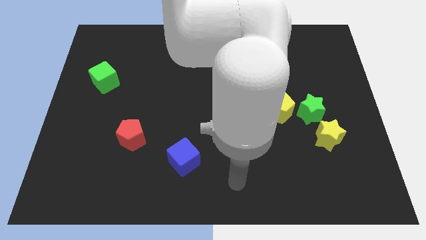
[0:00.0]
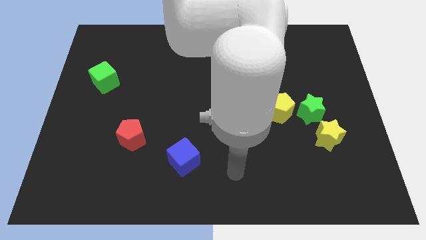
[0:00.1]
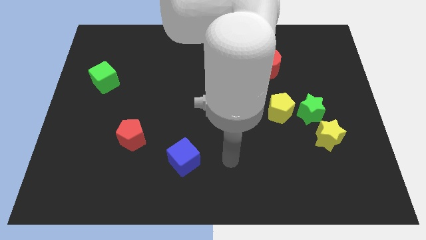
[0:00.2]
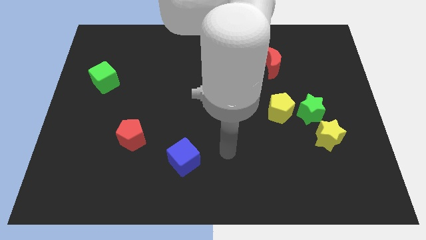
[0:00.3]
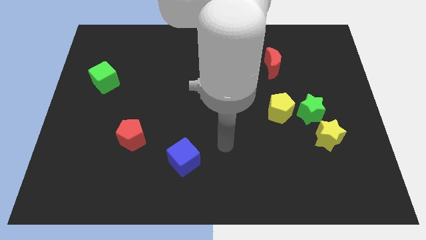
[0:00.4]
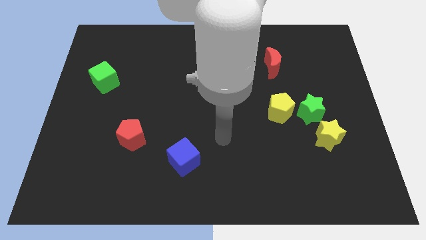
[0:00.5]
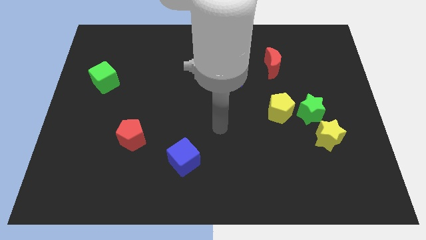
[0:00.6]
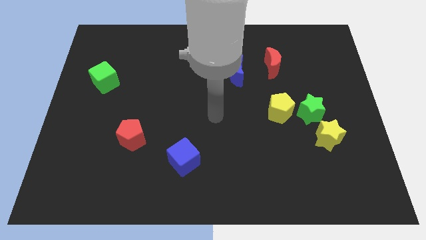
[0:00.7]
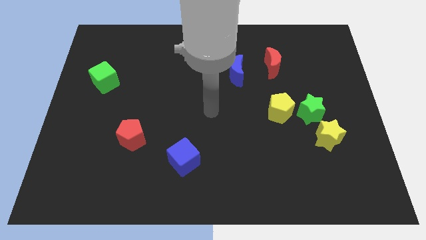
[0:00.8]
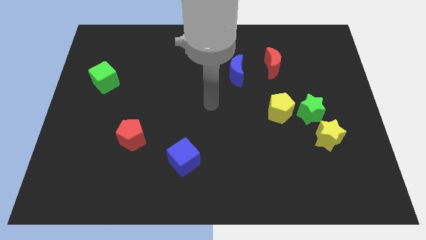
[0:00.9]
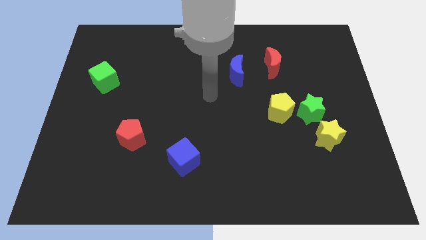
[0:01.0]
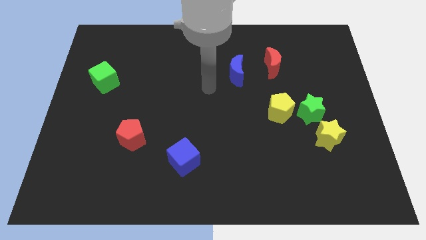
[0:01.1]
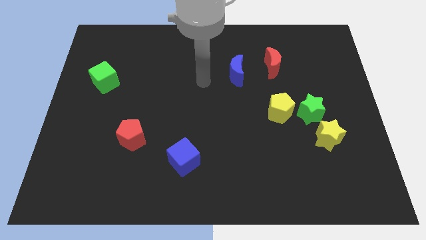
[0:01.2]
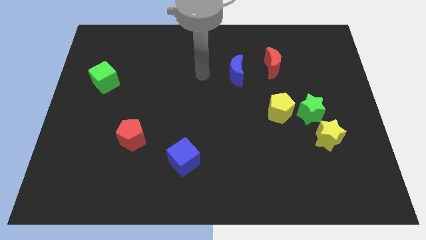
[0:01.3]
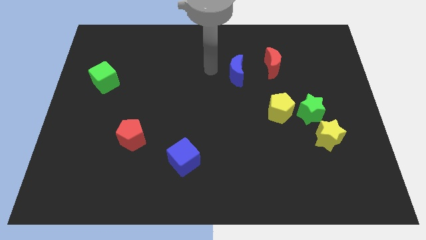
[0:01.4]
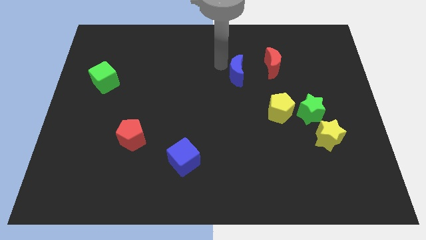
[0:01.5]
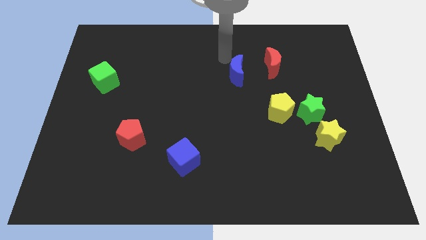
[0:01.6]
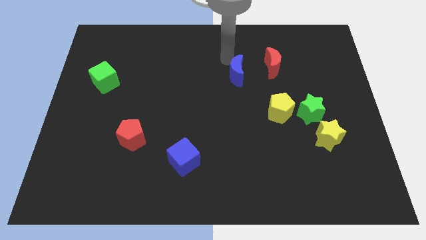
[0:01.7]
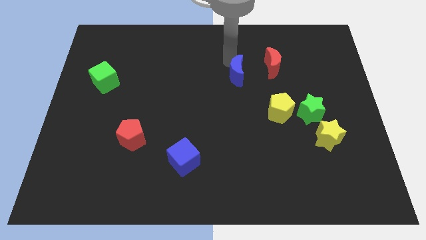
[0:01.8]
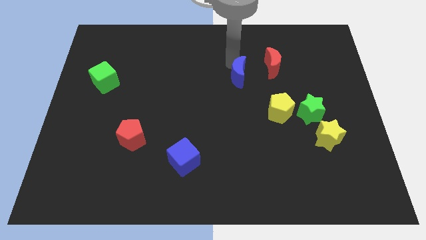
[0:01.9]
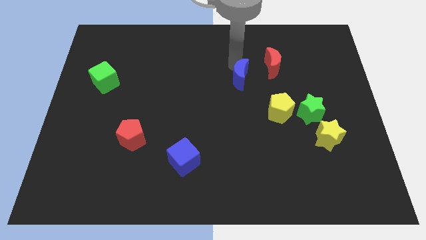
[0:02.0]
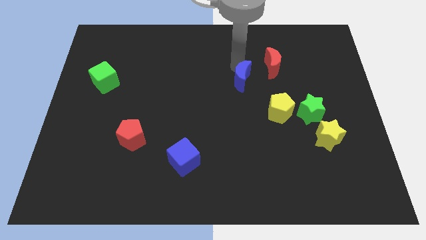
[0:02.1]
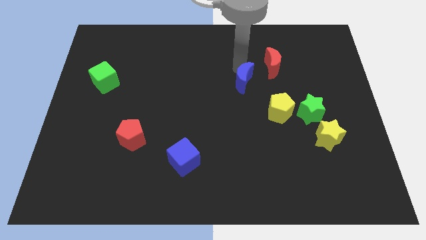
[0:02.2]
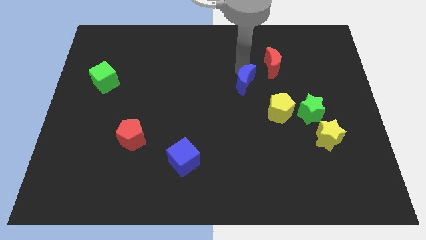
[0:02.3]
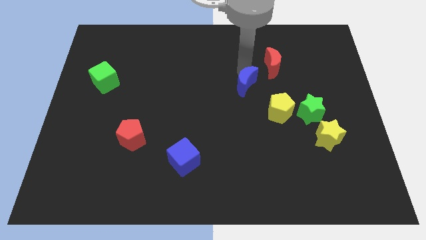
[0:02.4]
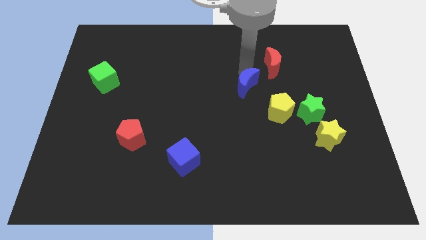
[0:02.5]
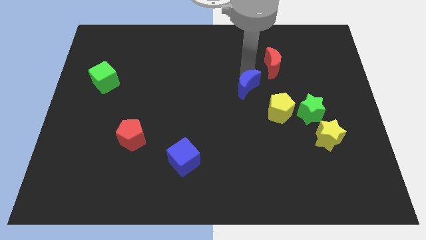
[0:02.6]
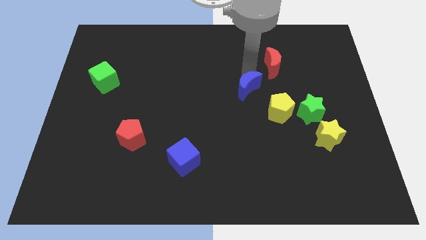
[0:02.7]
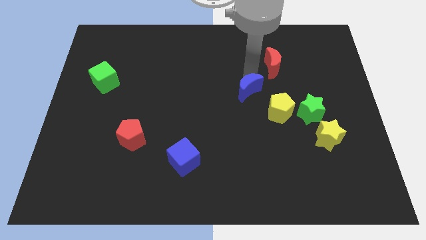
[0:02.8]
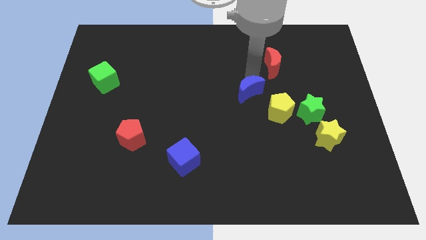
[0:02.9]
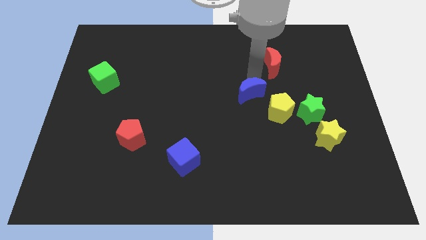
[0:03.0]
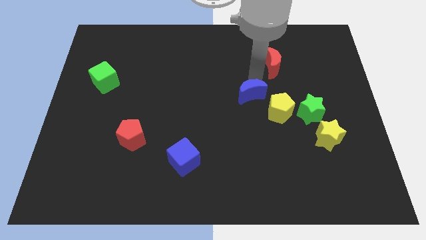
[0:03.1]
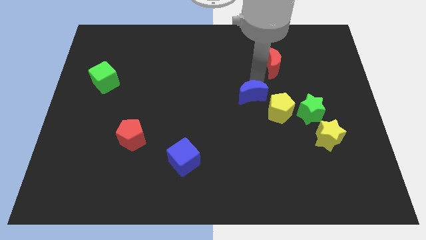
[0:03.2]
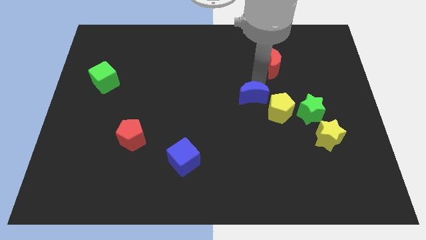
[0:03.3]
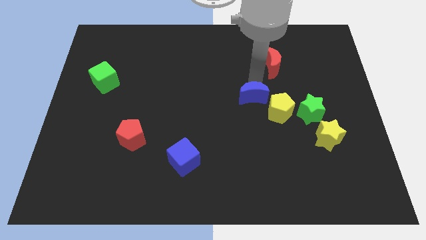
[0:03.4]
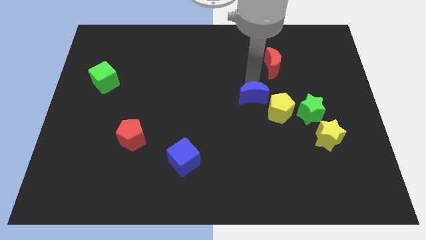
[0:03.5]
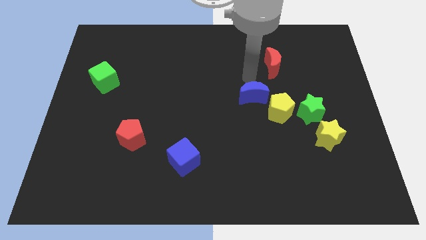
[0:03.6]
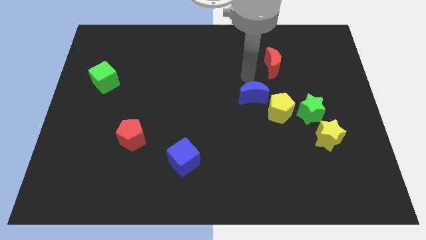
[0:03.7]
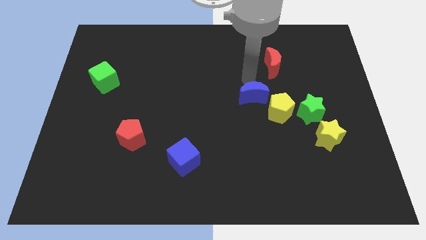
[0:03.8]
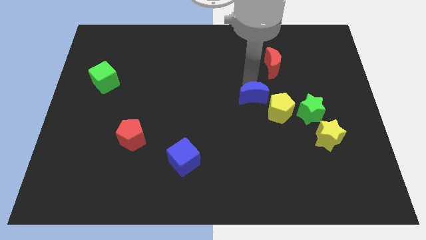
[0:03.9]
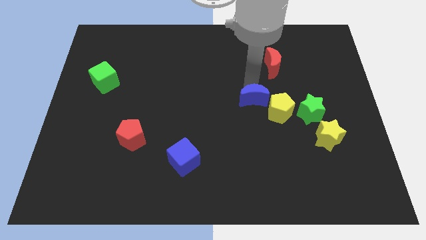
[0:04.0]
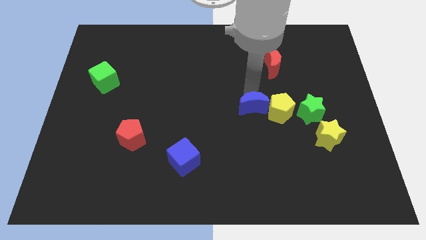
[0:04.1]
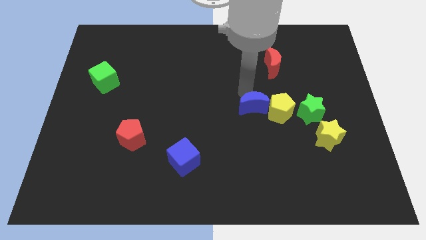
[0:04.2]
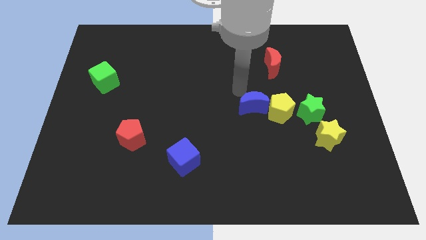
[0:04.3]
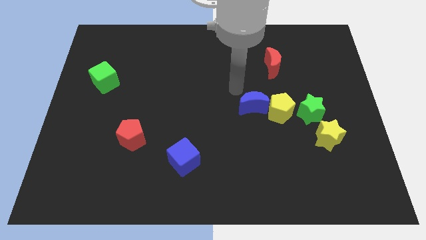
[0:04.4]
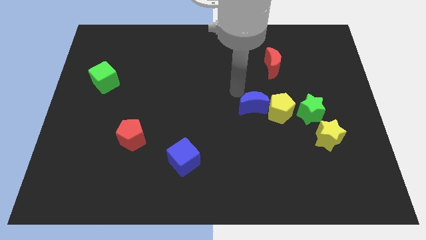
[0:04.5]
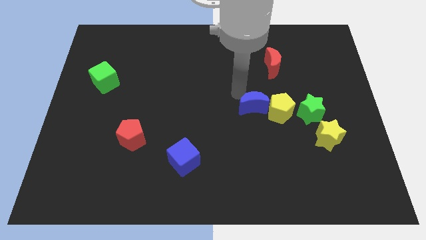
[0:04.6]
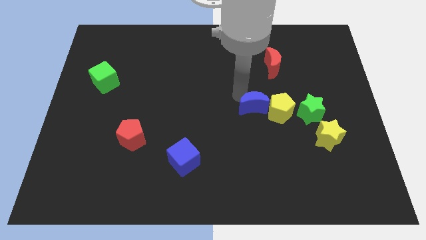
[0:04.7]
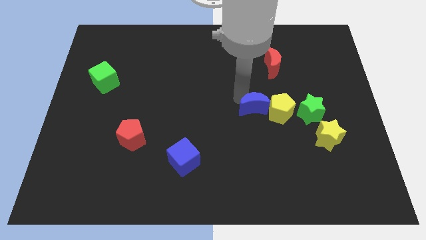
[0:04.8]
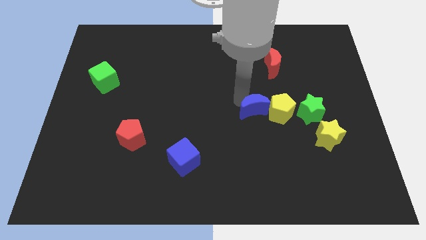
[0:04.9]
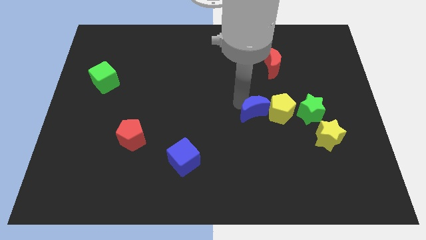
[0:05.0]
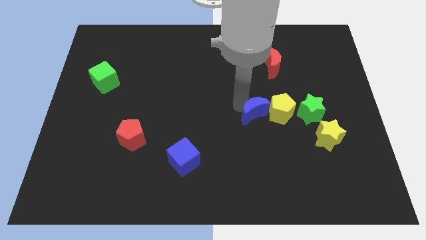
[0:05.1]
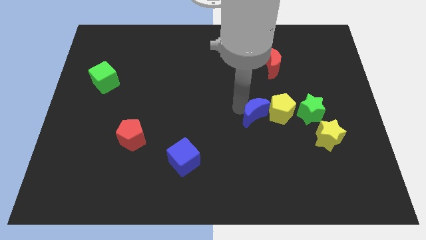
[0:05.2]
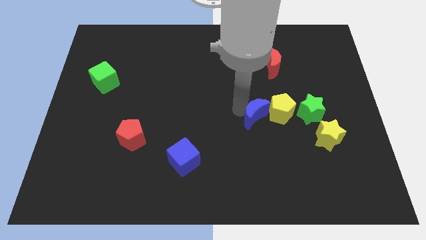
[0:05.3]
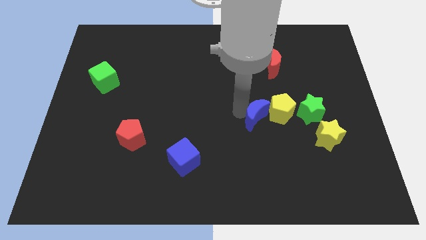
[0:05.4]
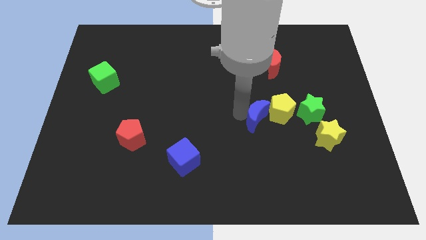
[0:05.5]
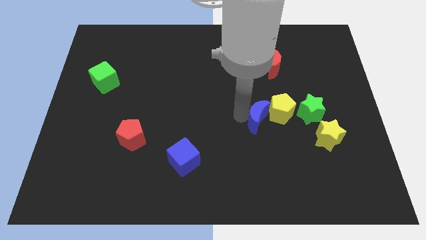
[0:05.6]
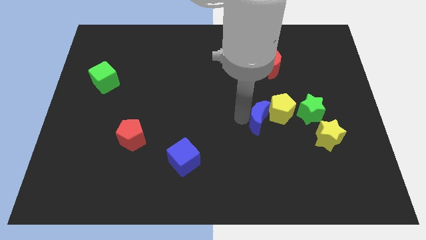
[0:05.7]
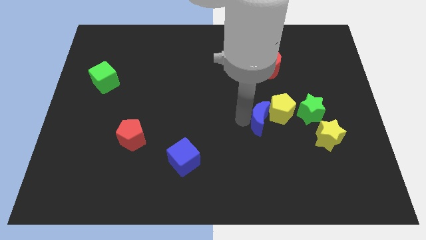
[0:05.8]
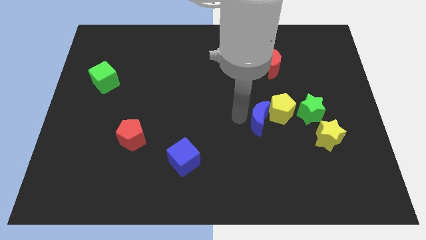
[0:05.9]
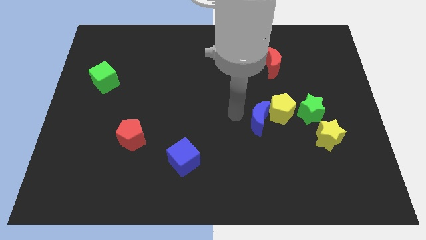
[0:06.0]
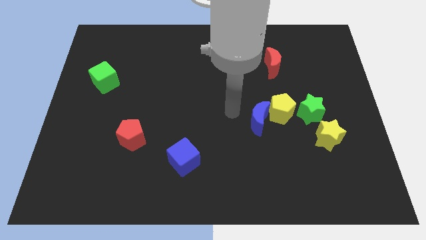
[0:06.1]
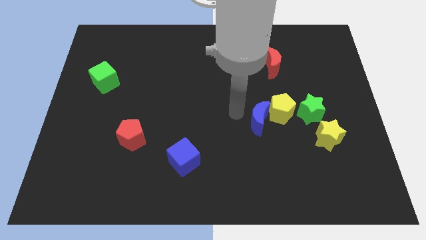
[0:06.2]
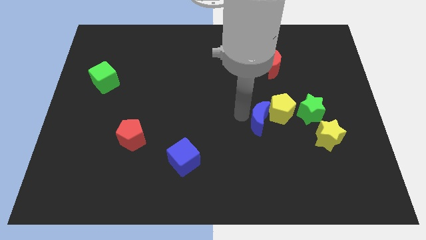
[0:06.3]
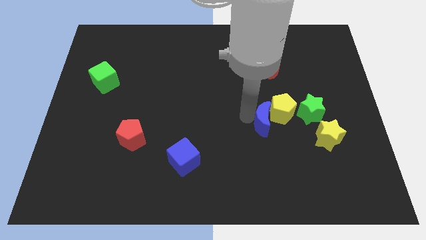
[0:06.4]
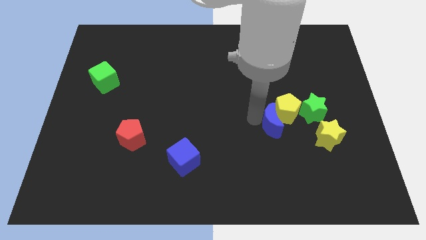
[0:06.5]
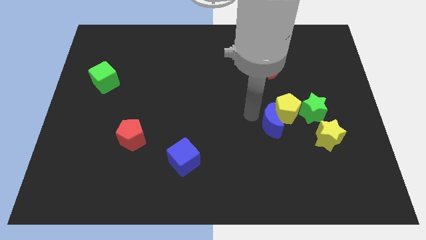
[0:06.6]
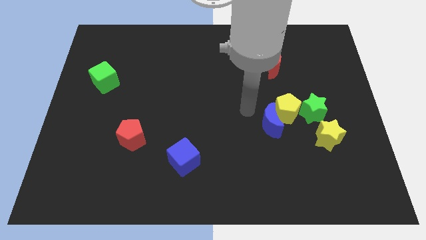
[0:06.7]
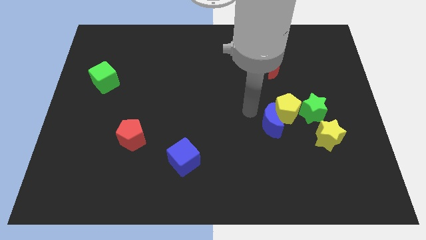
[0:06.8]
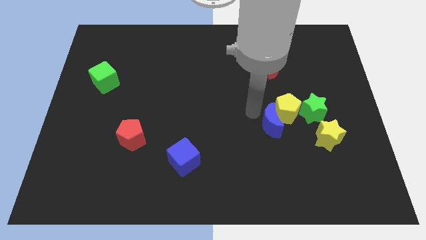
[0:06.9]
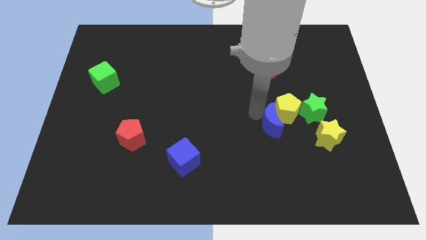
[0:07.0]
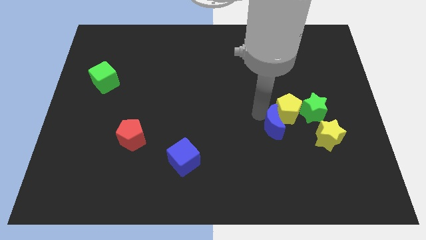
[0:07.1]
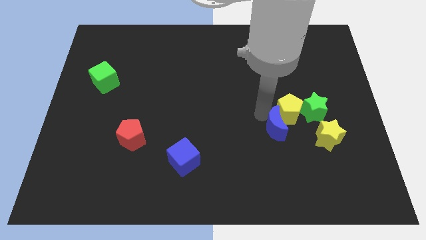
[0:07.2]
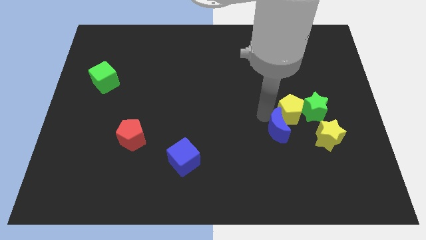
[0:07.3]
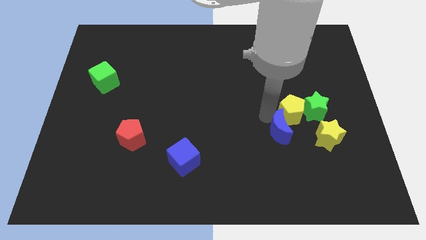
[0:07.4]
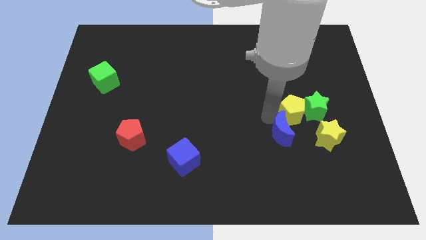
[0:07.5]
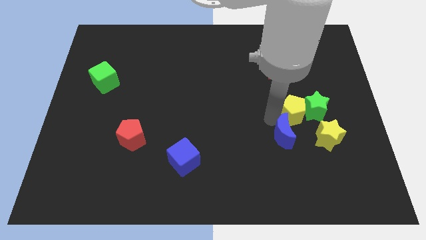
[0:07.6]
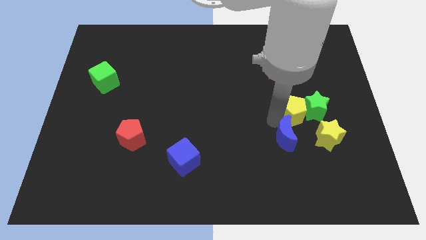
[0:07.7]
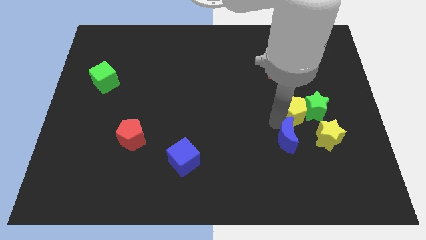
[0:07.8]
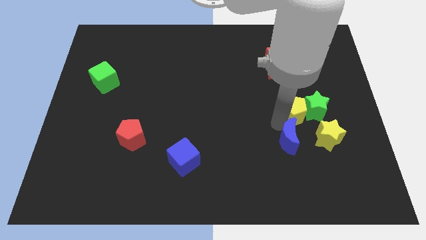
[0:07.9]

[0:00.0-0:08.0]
slide the blue moon downwards and then right
